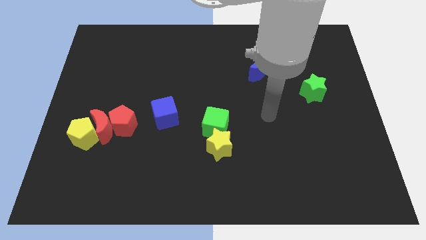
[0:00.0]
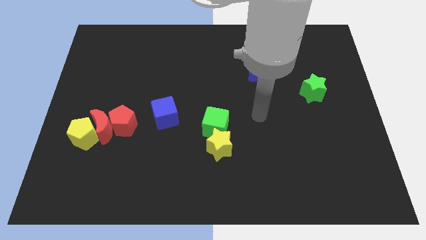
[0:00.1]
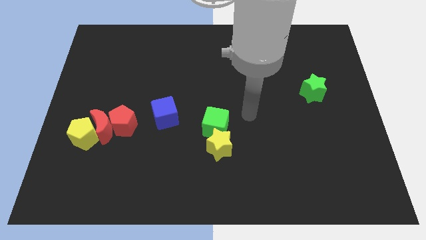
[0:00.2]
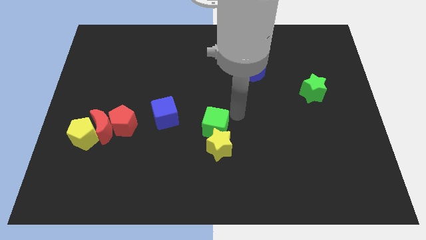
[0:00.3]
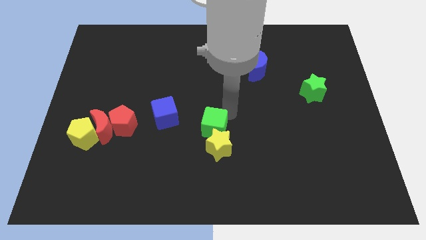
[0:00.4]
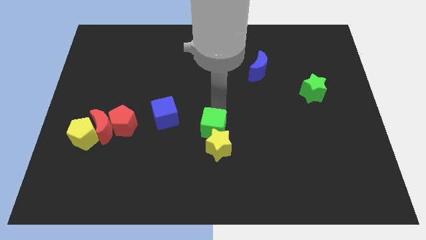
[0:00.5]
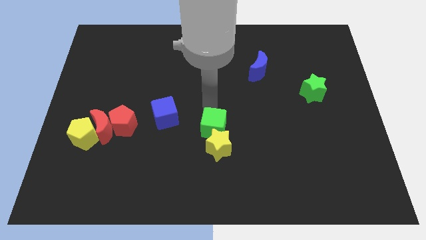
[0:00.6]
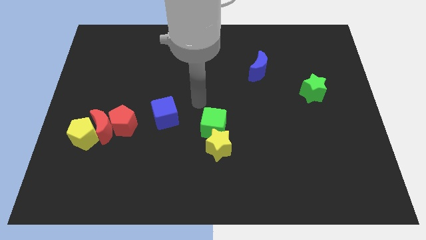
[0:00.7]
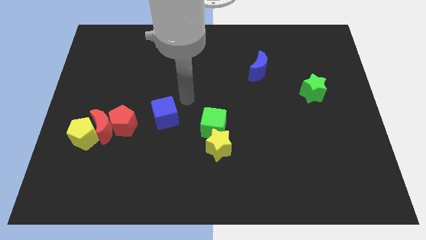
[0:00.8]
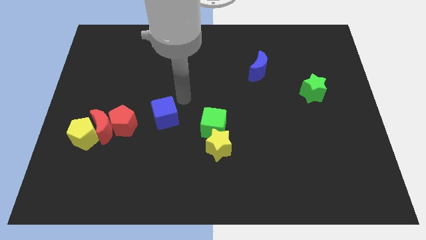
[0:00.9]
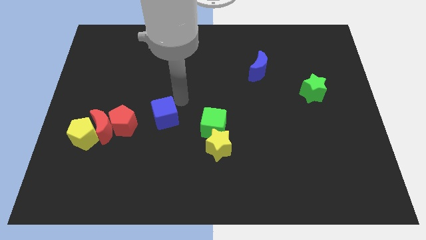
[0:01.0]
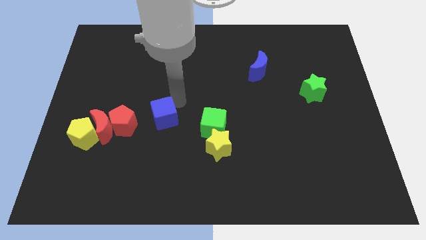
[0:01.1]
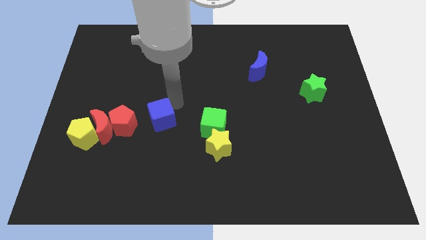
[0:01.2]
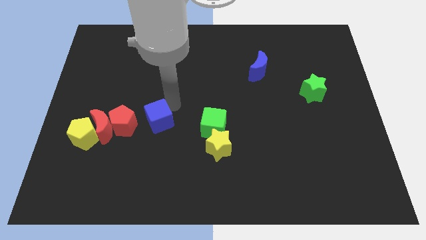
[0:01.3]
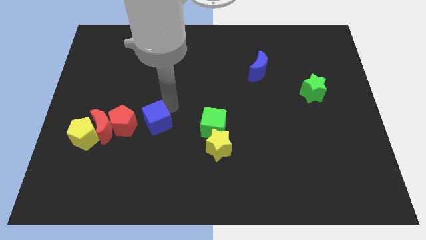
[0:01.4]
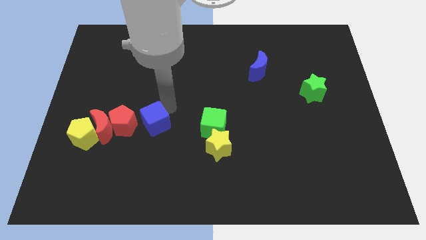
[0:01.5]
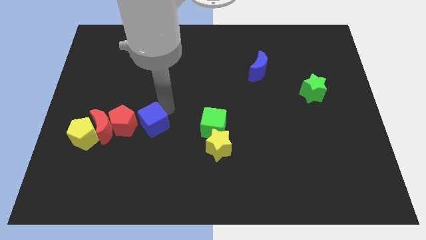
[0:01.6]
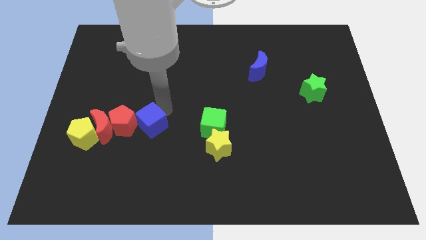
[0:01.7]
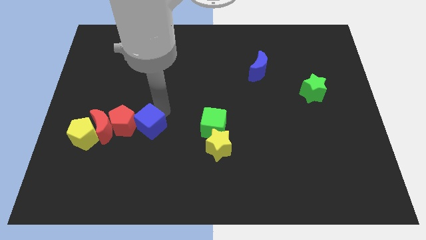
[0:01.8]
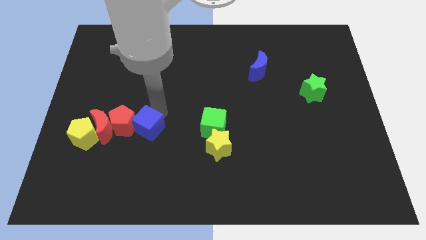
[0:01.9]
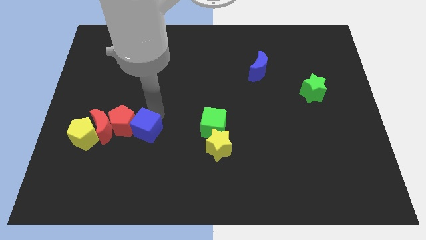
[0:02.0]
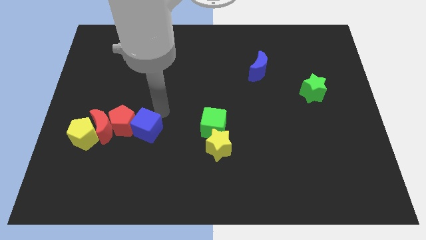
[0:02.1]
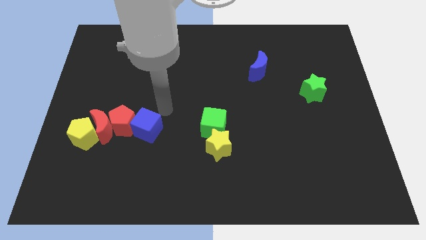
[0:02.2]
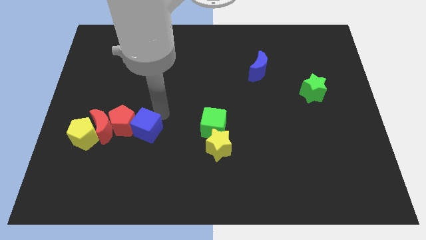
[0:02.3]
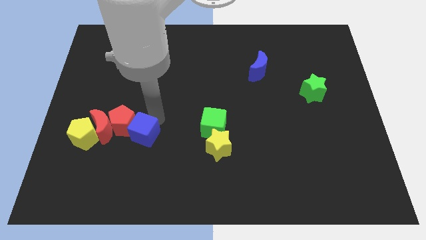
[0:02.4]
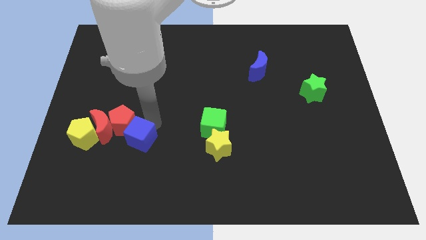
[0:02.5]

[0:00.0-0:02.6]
move the blue cube a bit downwards and to the left

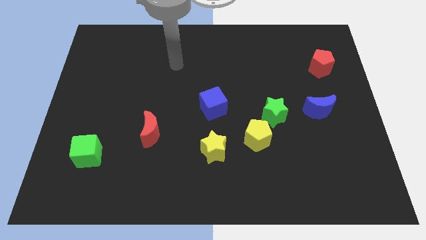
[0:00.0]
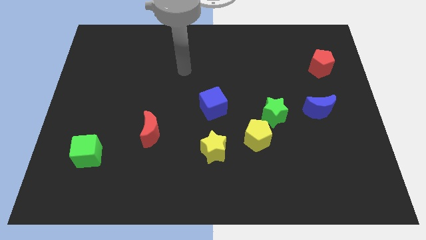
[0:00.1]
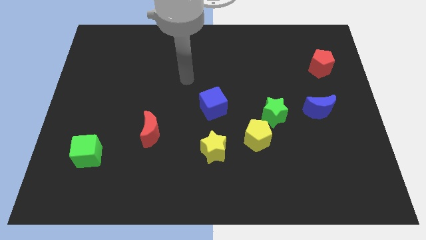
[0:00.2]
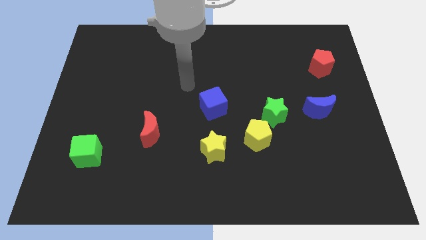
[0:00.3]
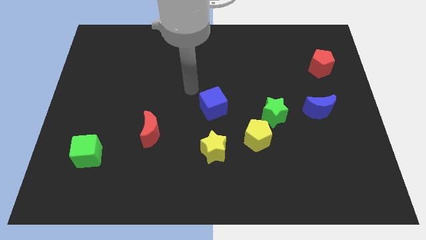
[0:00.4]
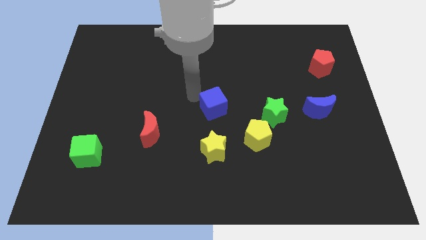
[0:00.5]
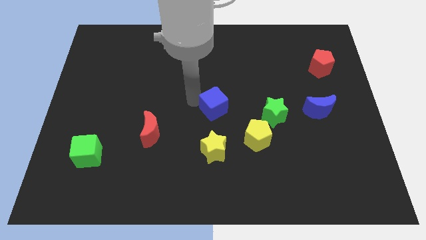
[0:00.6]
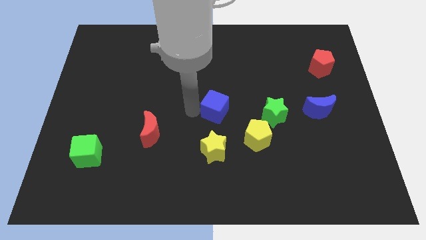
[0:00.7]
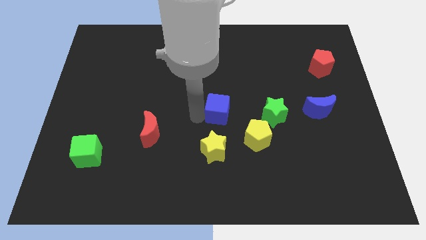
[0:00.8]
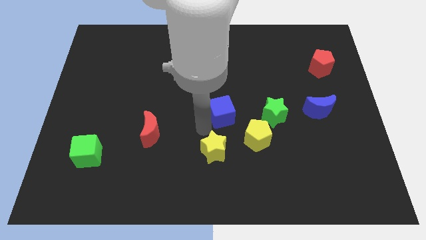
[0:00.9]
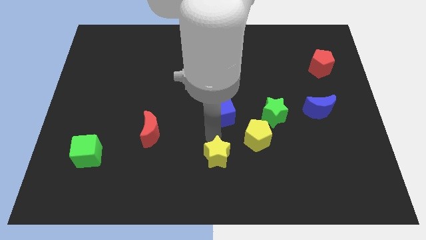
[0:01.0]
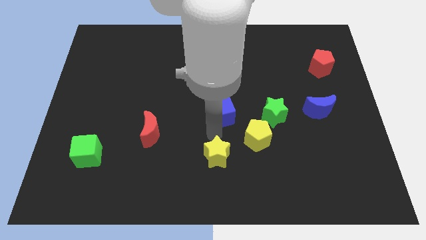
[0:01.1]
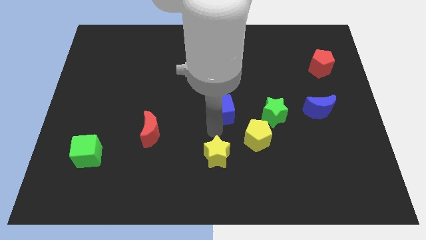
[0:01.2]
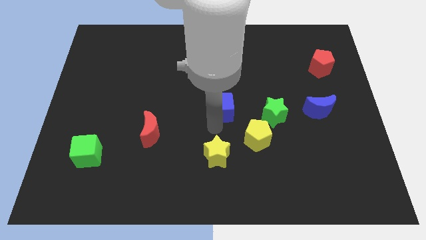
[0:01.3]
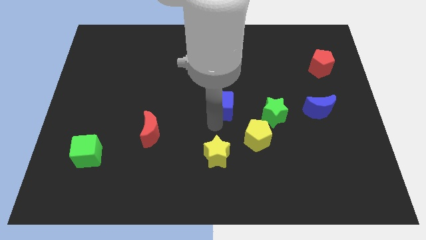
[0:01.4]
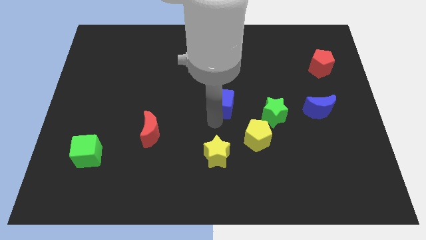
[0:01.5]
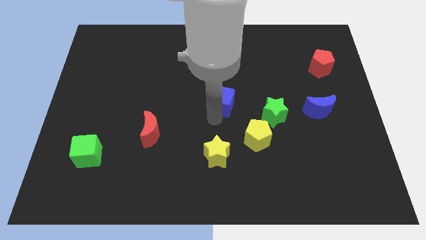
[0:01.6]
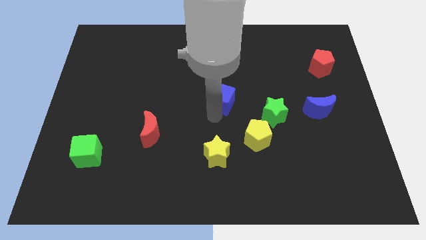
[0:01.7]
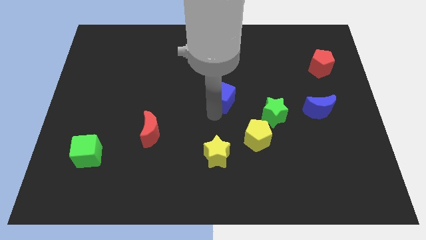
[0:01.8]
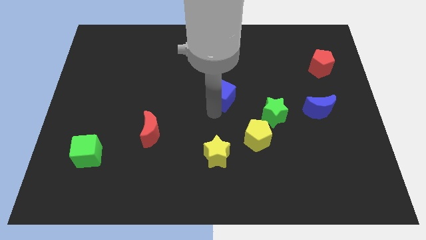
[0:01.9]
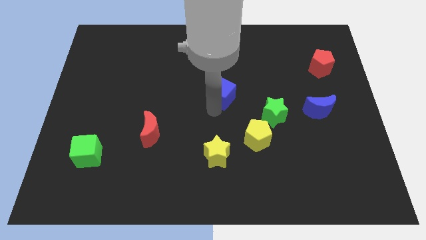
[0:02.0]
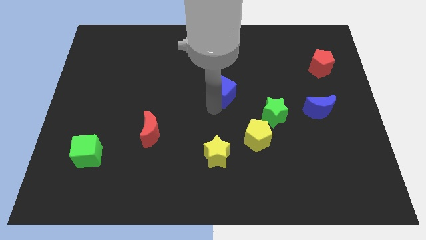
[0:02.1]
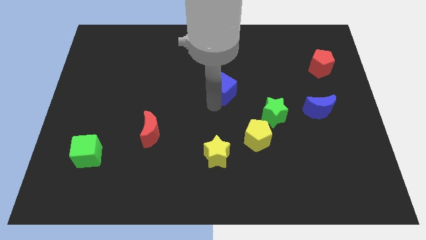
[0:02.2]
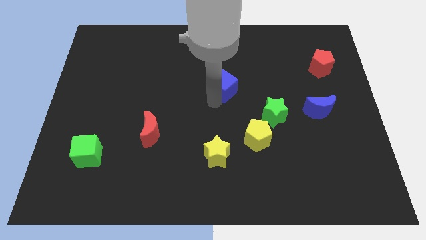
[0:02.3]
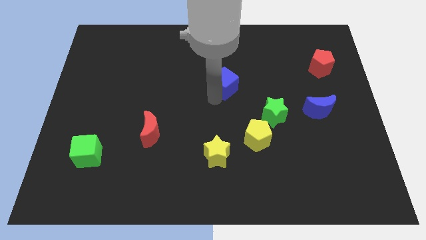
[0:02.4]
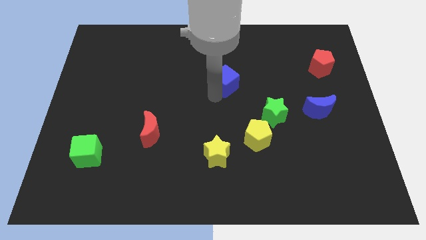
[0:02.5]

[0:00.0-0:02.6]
push the blue cube somewhat upwards and right diagonally

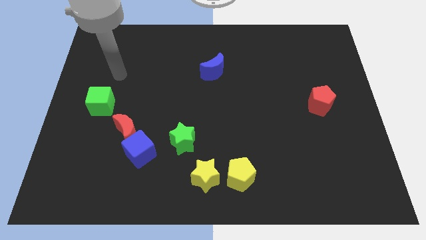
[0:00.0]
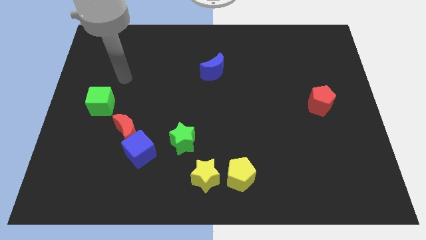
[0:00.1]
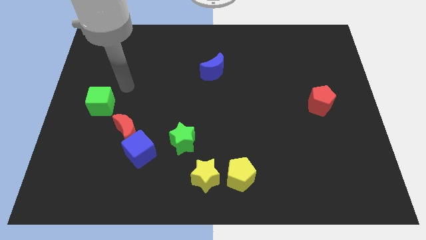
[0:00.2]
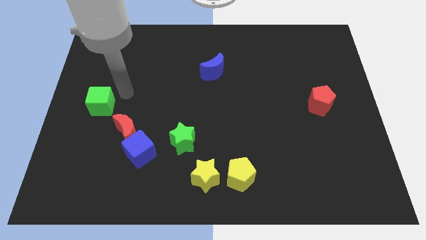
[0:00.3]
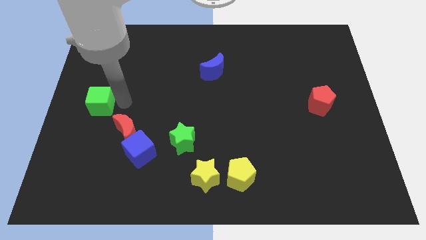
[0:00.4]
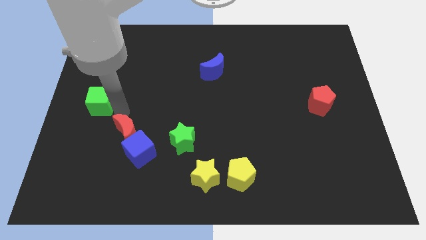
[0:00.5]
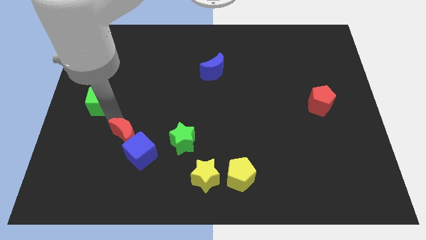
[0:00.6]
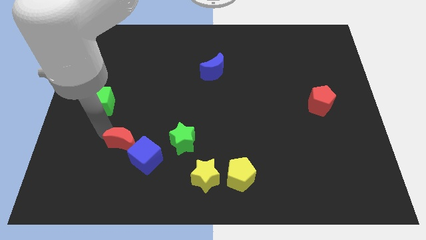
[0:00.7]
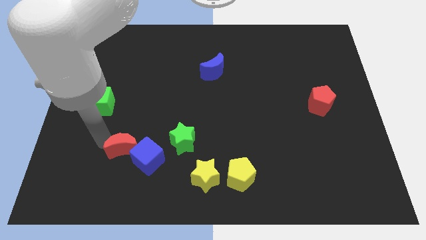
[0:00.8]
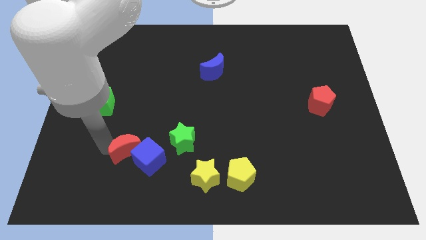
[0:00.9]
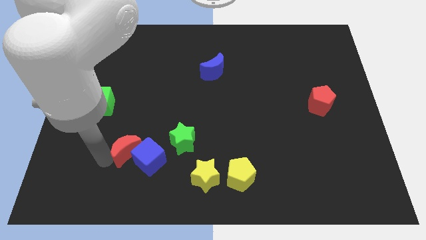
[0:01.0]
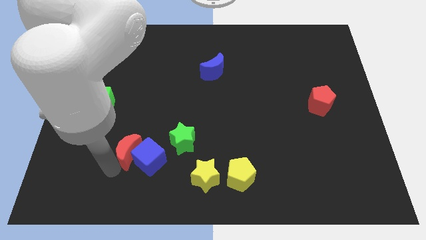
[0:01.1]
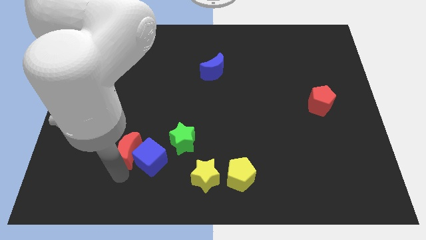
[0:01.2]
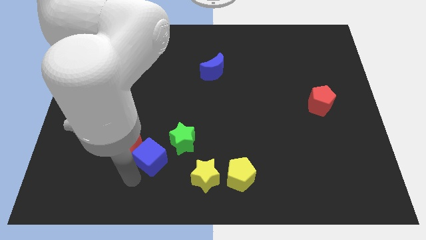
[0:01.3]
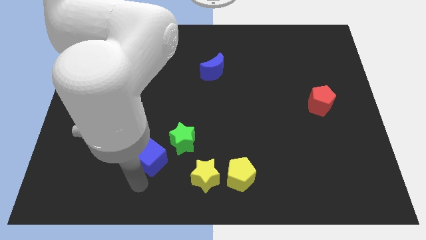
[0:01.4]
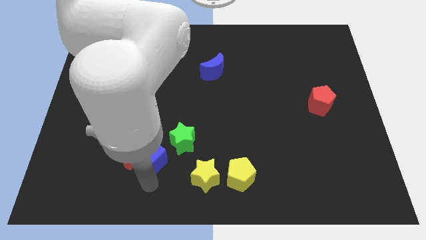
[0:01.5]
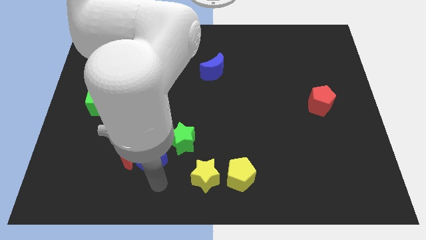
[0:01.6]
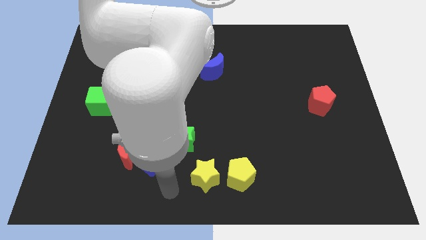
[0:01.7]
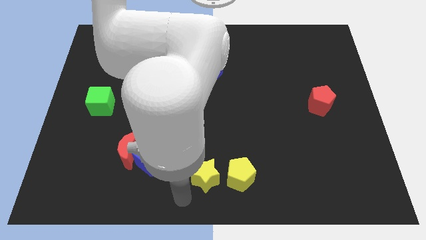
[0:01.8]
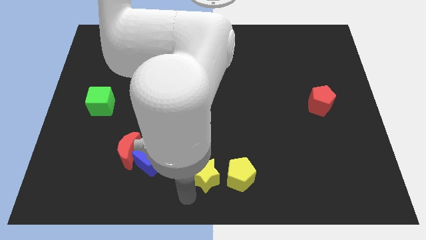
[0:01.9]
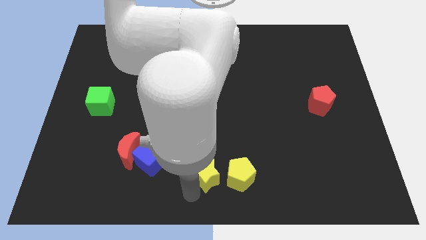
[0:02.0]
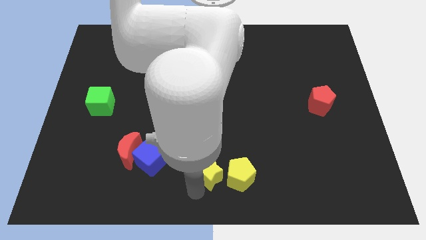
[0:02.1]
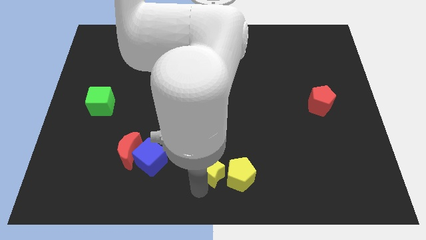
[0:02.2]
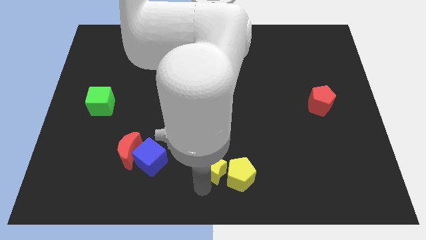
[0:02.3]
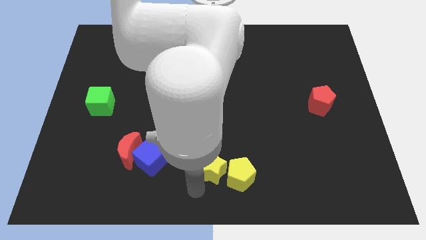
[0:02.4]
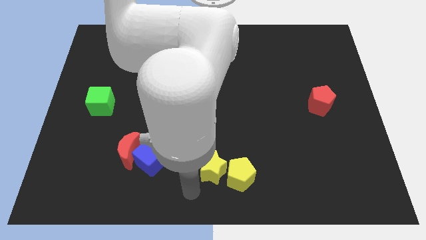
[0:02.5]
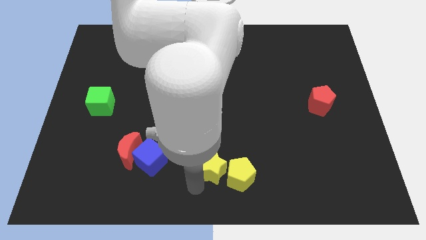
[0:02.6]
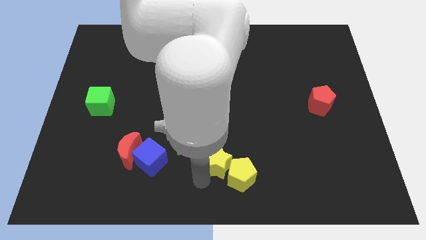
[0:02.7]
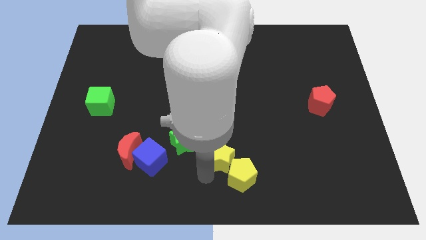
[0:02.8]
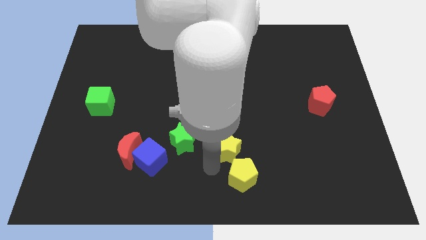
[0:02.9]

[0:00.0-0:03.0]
push the yellow star up and then to the right a bit
